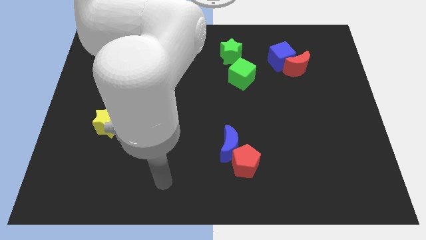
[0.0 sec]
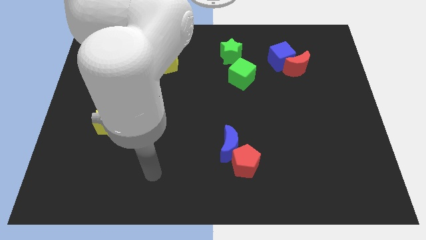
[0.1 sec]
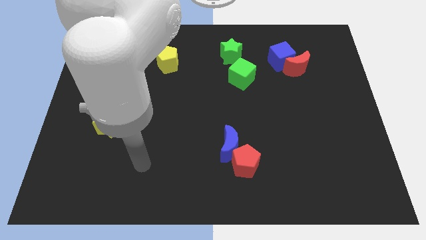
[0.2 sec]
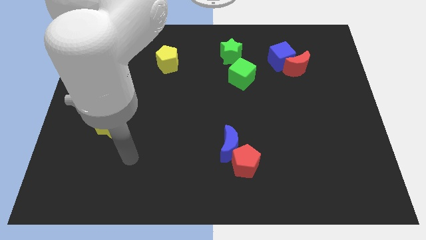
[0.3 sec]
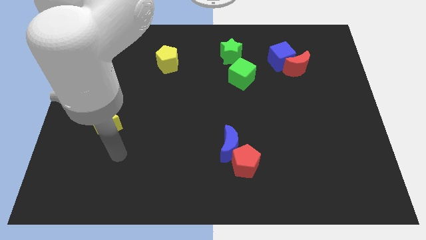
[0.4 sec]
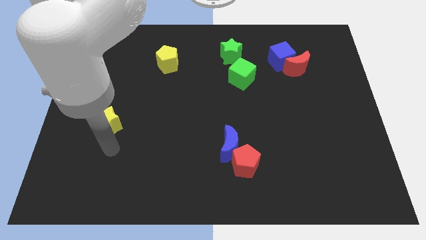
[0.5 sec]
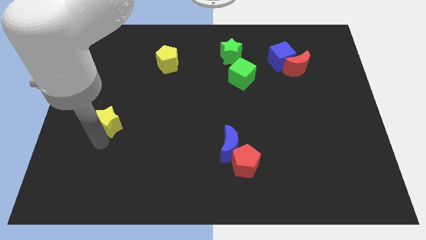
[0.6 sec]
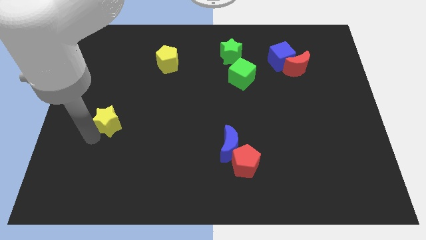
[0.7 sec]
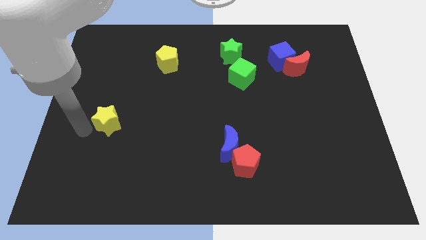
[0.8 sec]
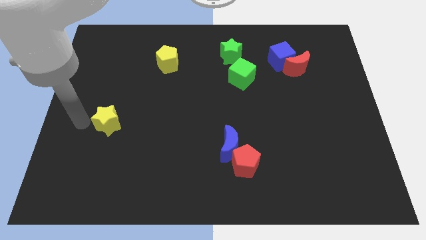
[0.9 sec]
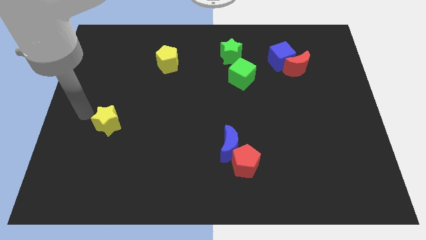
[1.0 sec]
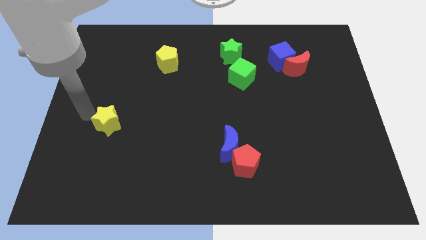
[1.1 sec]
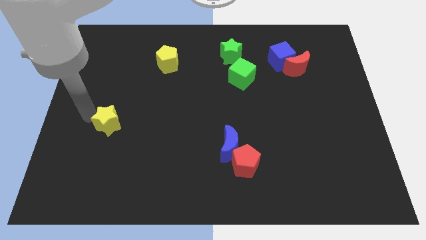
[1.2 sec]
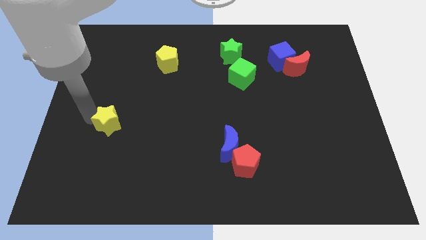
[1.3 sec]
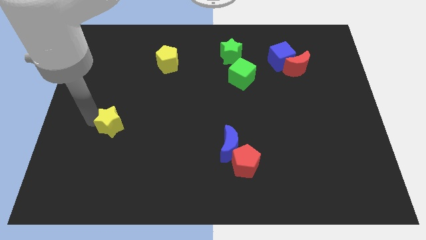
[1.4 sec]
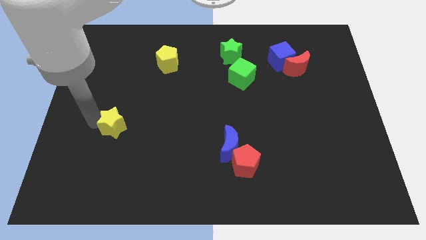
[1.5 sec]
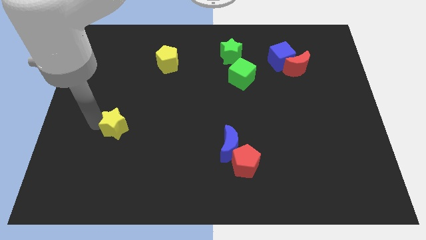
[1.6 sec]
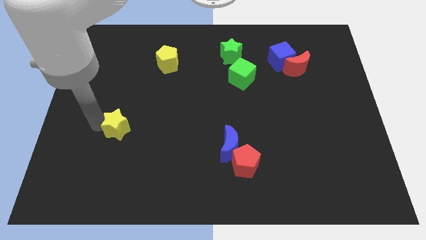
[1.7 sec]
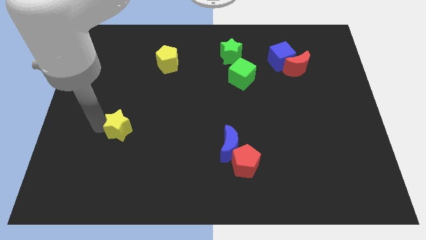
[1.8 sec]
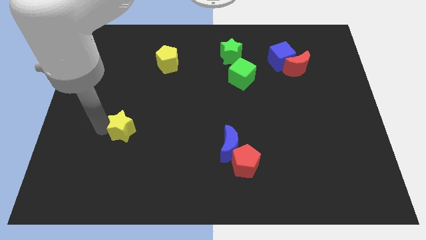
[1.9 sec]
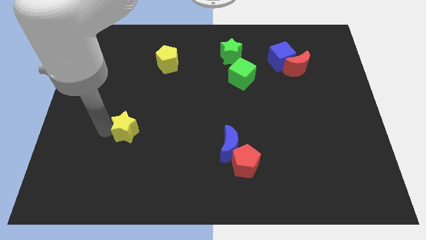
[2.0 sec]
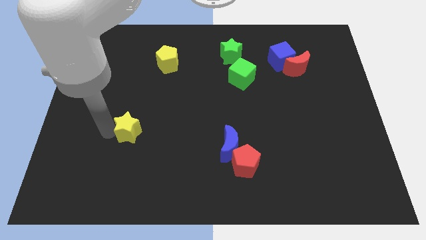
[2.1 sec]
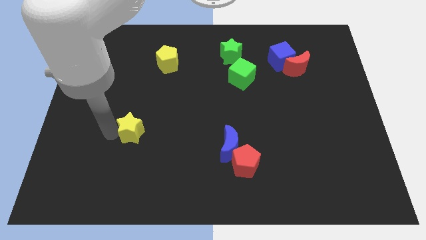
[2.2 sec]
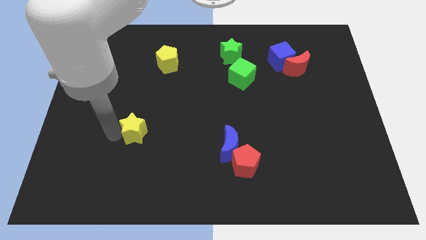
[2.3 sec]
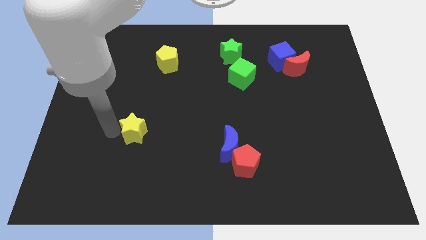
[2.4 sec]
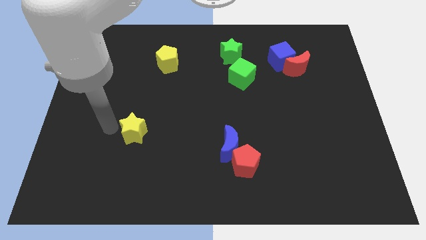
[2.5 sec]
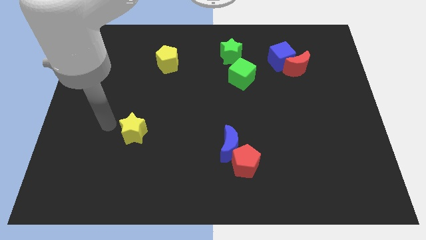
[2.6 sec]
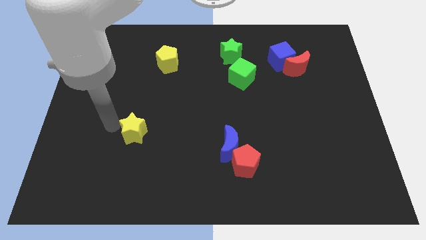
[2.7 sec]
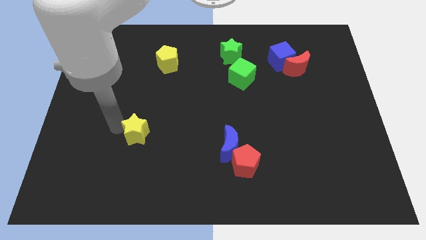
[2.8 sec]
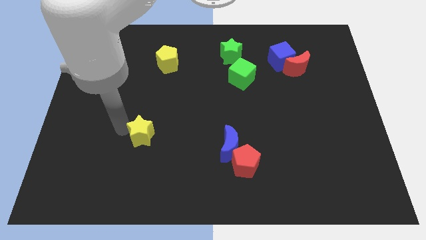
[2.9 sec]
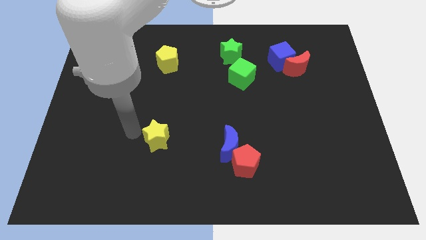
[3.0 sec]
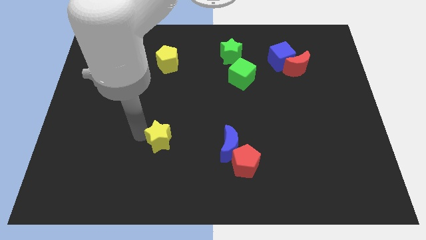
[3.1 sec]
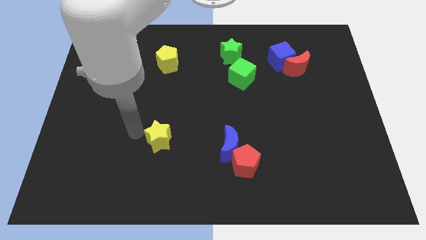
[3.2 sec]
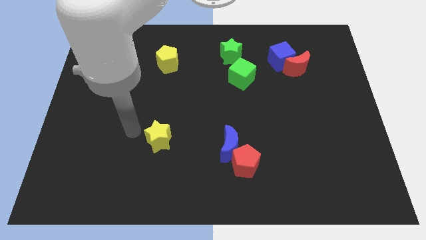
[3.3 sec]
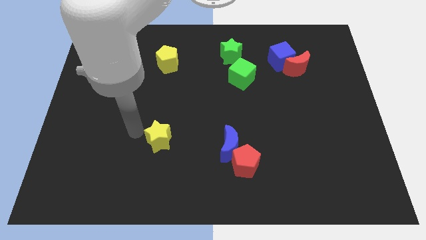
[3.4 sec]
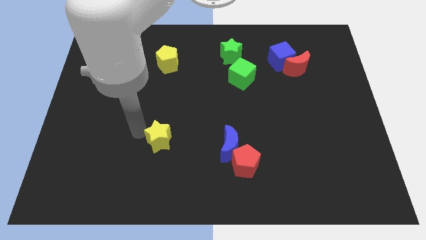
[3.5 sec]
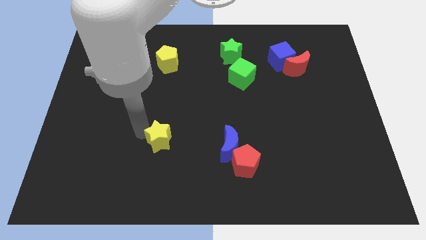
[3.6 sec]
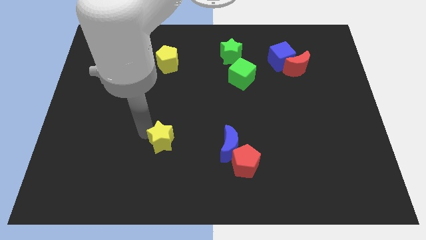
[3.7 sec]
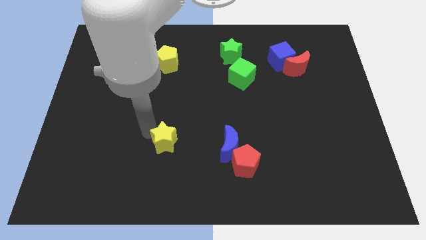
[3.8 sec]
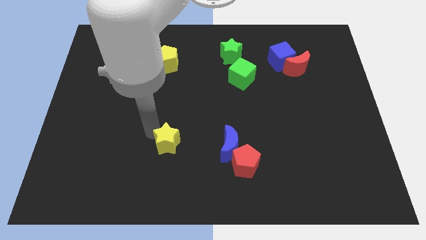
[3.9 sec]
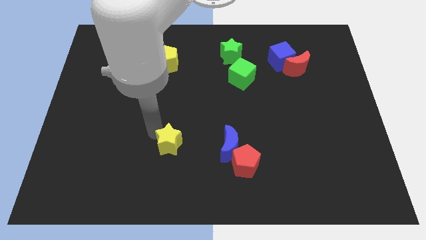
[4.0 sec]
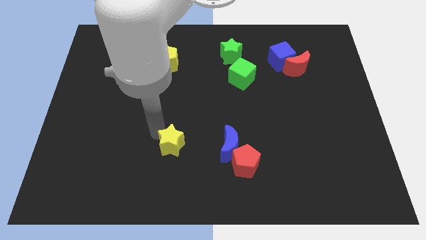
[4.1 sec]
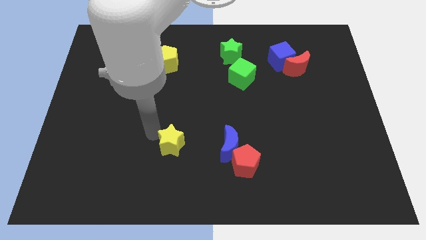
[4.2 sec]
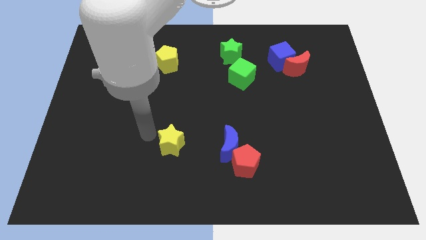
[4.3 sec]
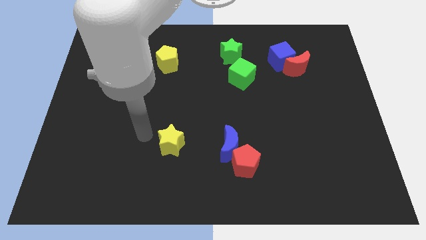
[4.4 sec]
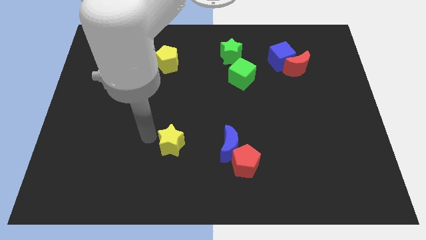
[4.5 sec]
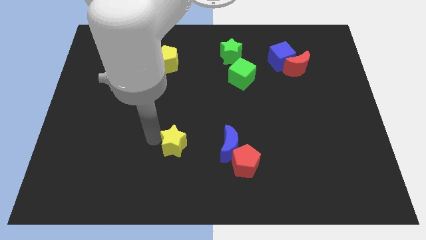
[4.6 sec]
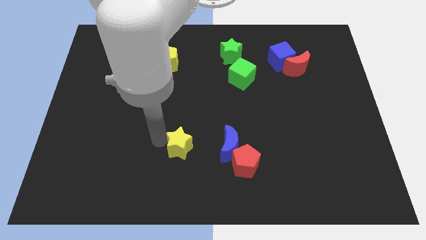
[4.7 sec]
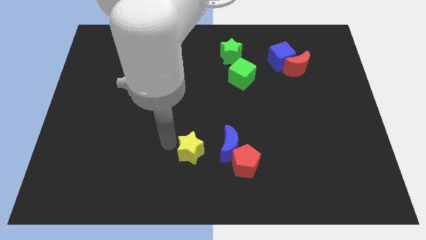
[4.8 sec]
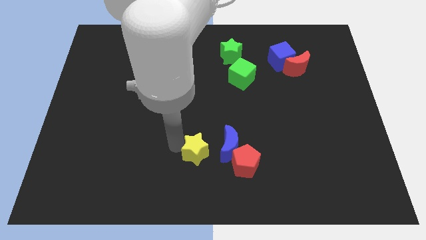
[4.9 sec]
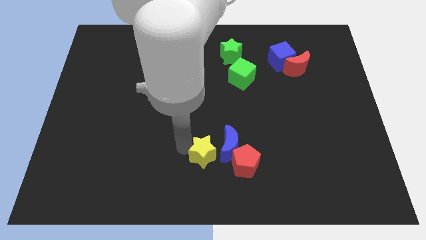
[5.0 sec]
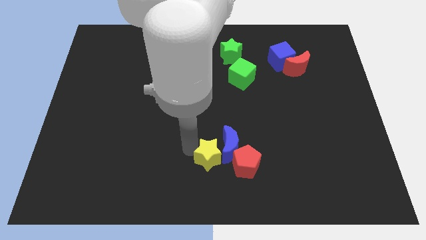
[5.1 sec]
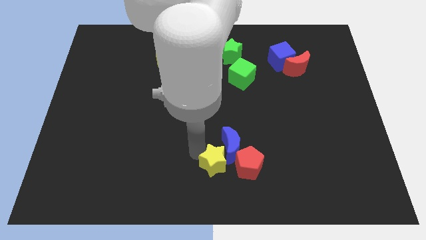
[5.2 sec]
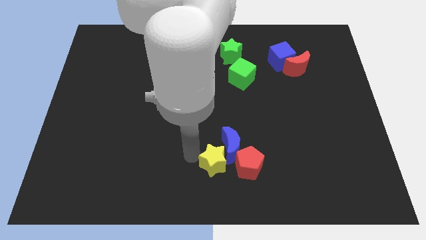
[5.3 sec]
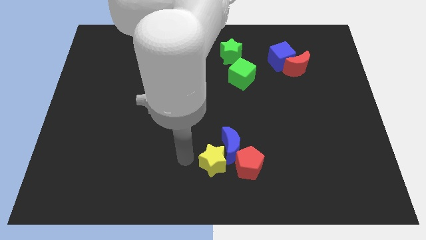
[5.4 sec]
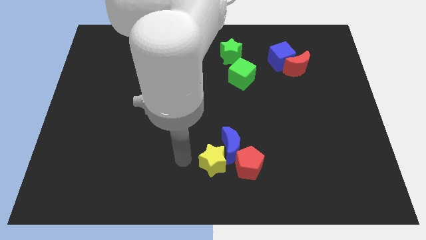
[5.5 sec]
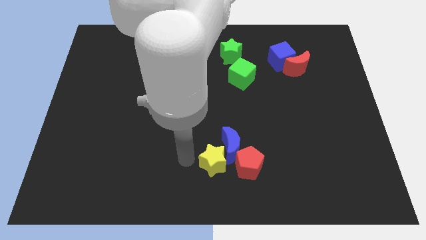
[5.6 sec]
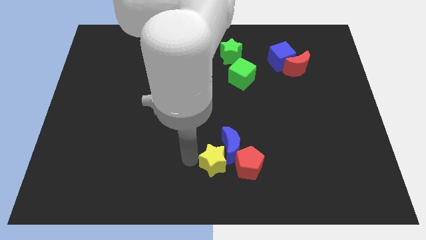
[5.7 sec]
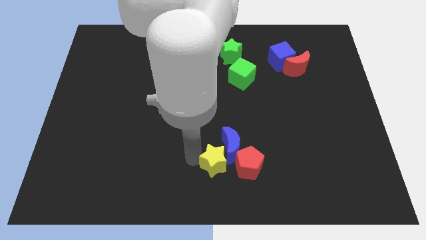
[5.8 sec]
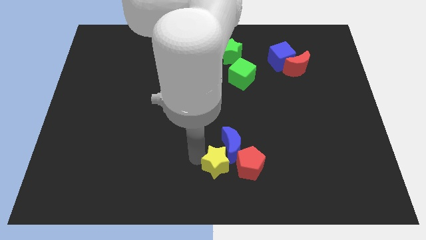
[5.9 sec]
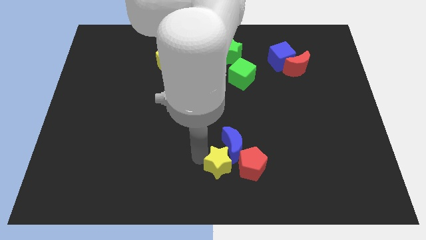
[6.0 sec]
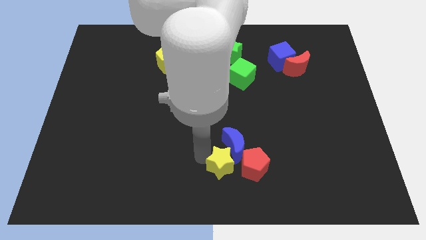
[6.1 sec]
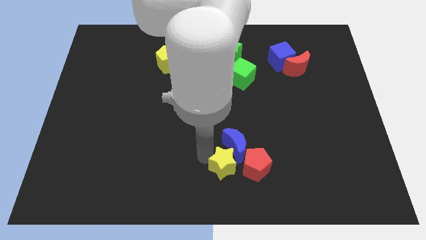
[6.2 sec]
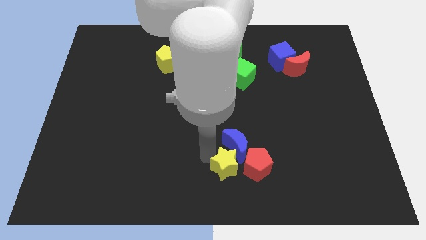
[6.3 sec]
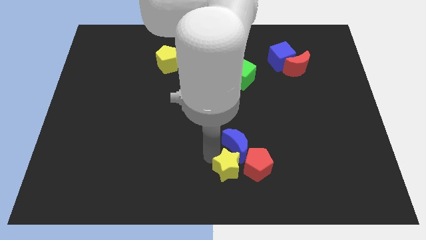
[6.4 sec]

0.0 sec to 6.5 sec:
put the yellow star close to the red pentagon

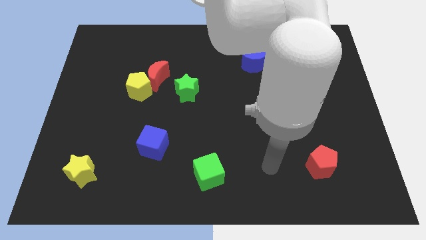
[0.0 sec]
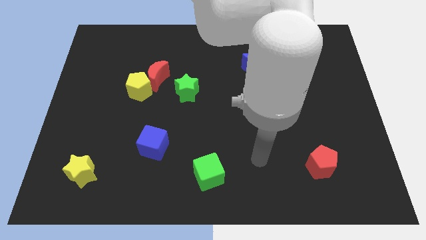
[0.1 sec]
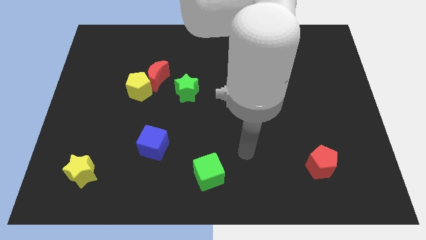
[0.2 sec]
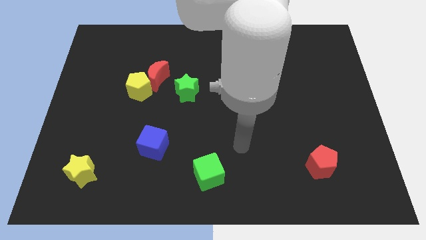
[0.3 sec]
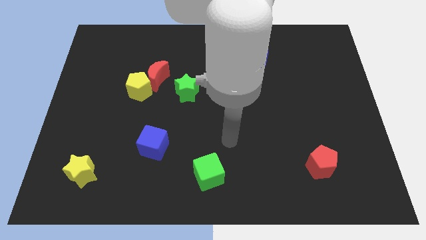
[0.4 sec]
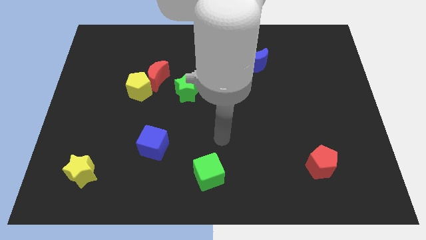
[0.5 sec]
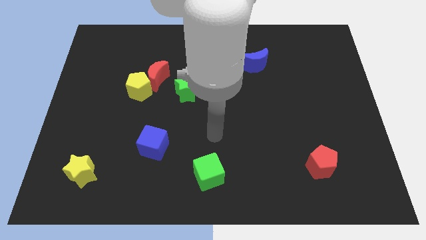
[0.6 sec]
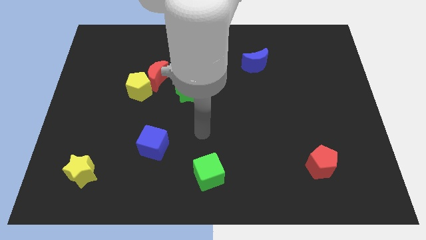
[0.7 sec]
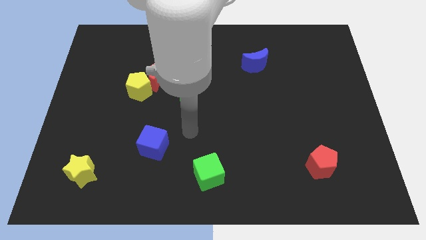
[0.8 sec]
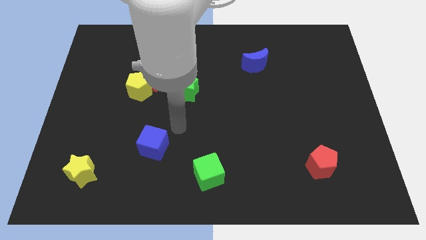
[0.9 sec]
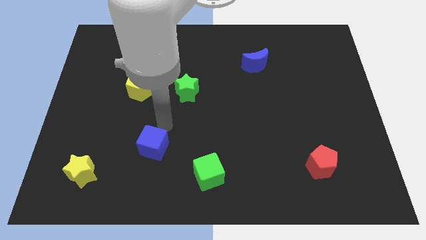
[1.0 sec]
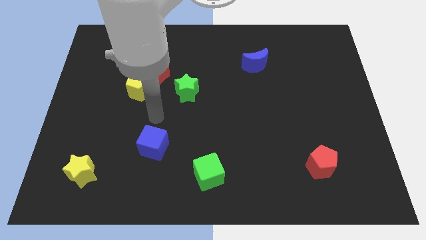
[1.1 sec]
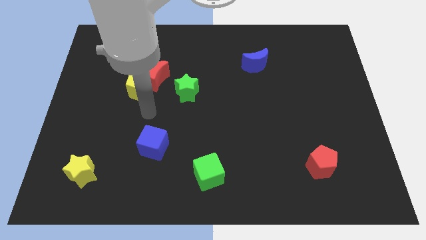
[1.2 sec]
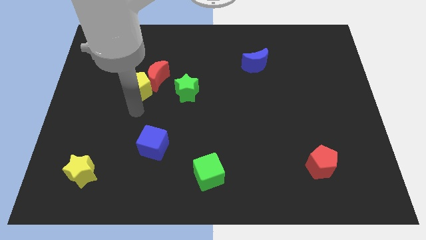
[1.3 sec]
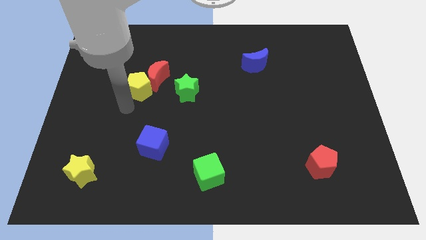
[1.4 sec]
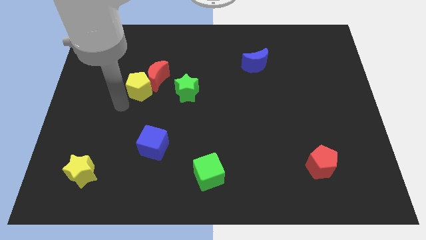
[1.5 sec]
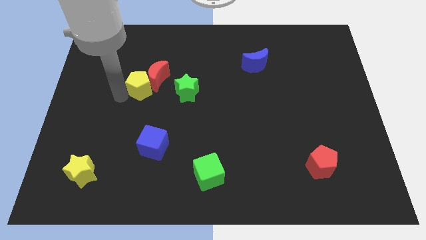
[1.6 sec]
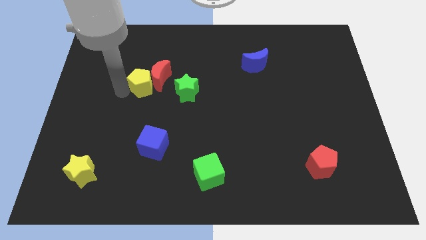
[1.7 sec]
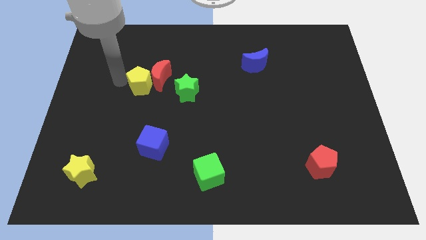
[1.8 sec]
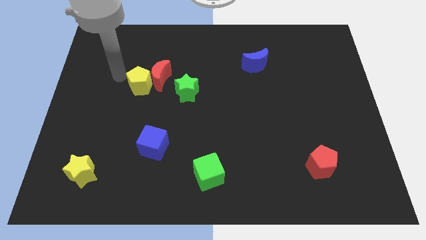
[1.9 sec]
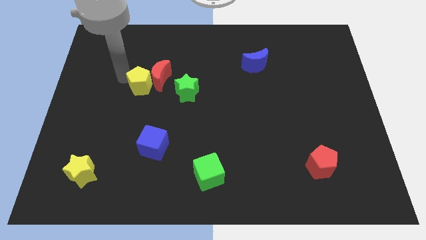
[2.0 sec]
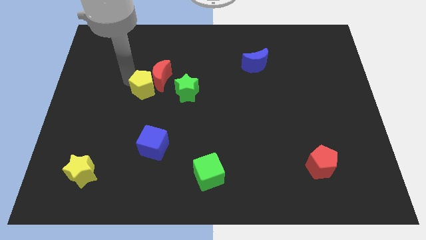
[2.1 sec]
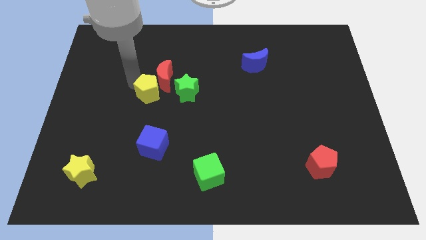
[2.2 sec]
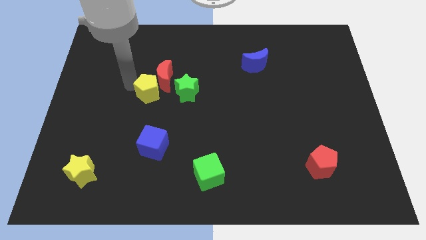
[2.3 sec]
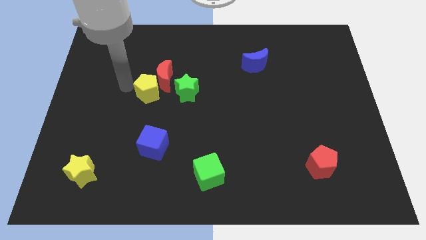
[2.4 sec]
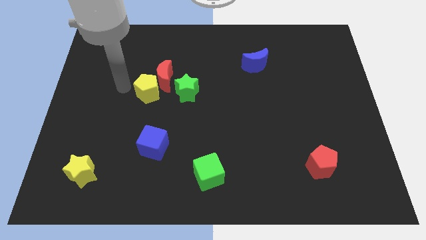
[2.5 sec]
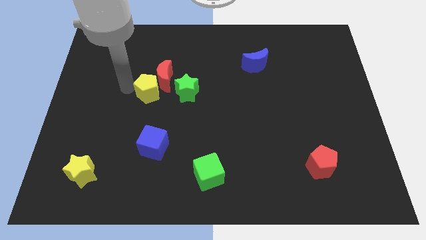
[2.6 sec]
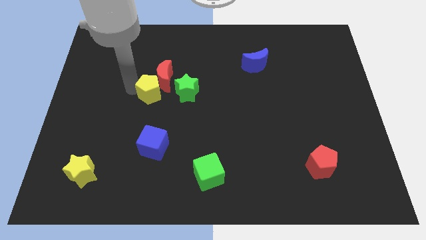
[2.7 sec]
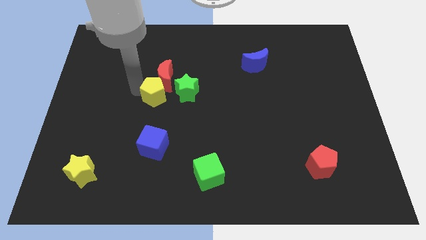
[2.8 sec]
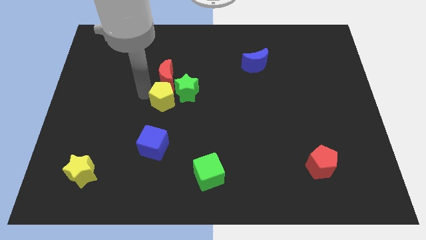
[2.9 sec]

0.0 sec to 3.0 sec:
push the yellow pentagon next to the green star
